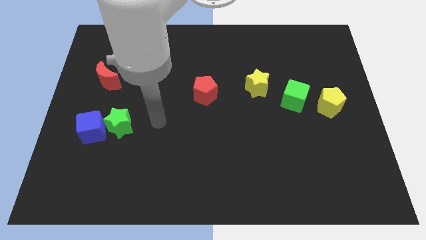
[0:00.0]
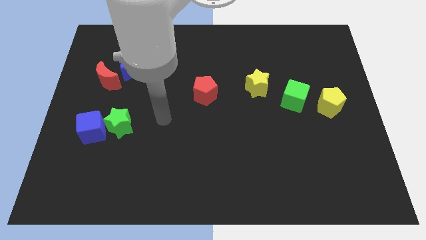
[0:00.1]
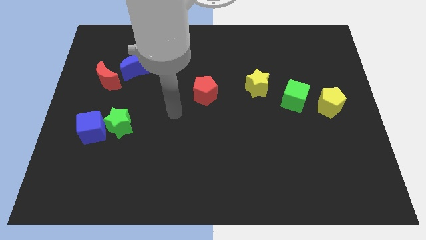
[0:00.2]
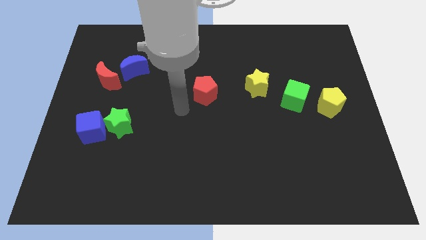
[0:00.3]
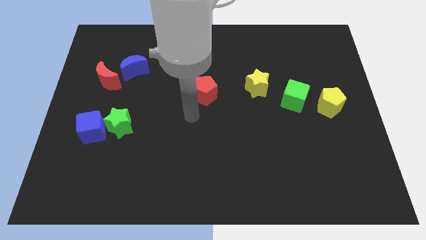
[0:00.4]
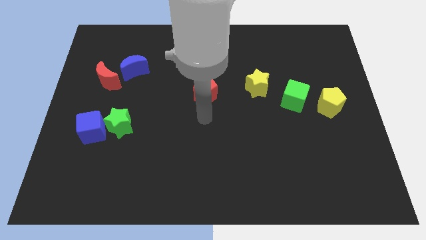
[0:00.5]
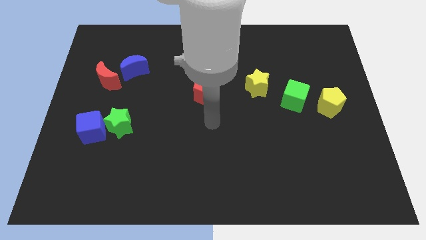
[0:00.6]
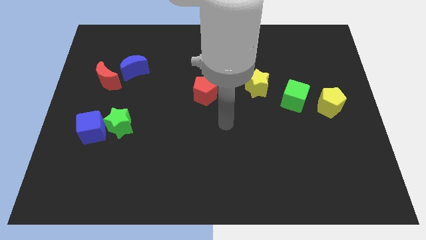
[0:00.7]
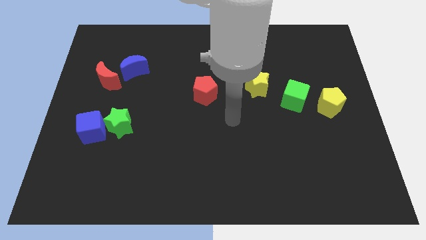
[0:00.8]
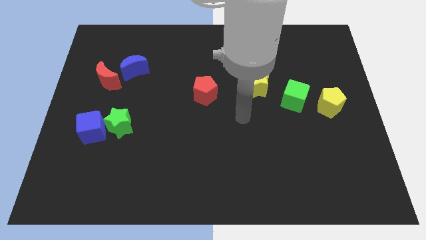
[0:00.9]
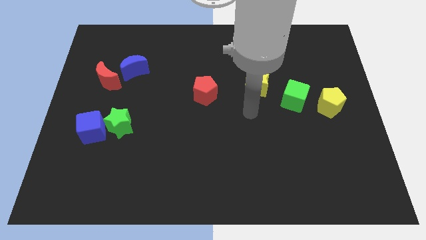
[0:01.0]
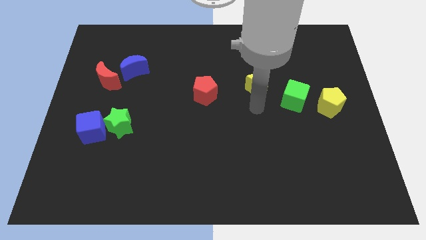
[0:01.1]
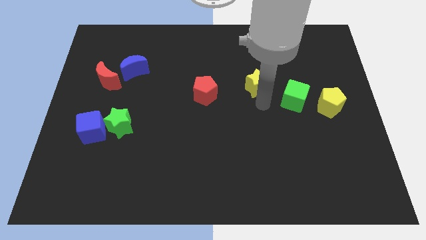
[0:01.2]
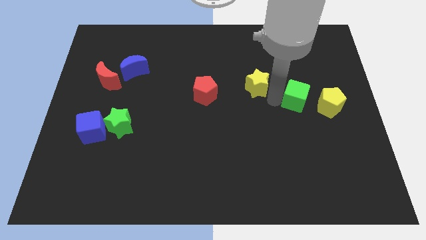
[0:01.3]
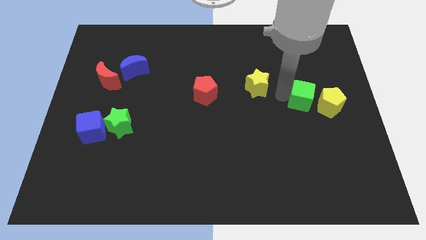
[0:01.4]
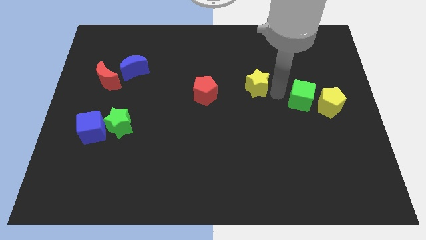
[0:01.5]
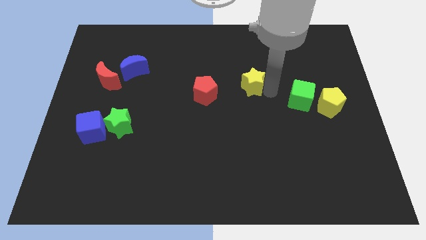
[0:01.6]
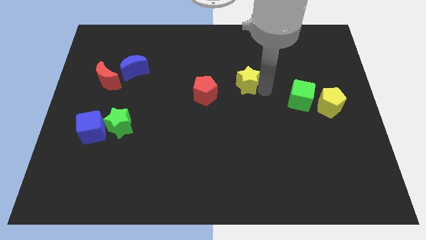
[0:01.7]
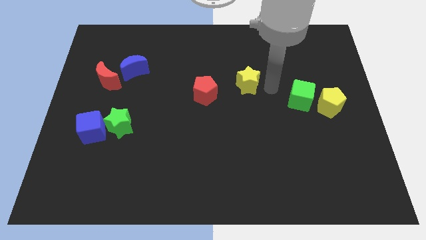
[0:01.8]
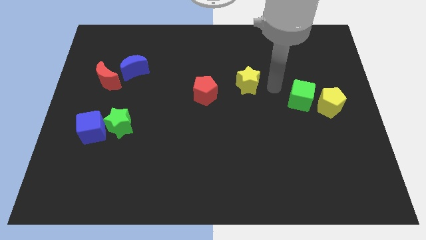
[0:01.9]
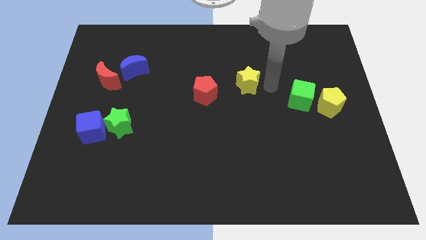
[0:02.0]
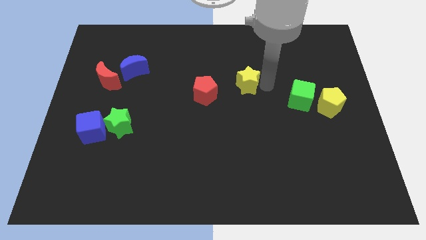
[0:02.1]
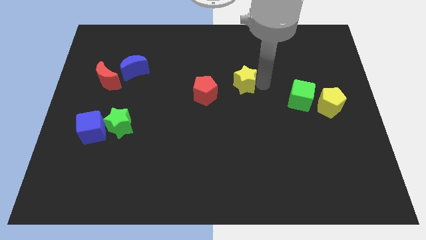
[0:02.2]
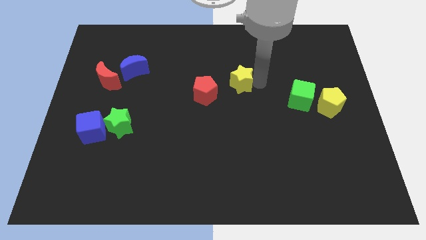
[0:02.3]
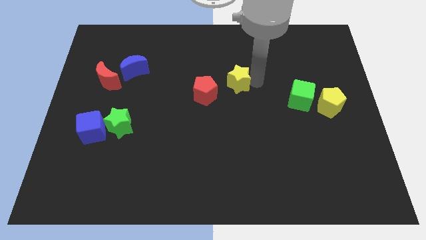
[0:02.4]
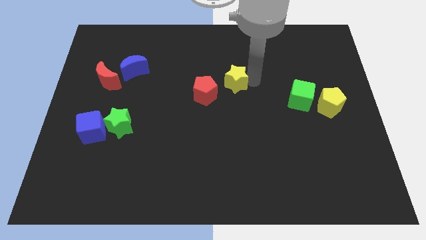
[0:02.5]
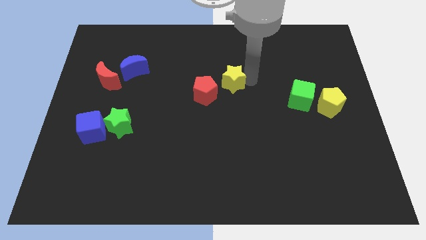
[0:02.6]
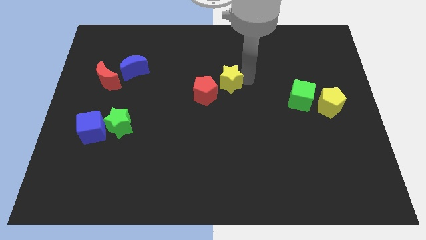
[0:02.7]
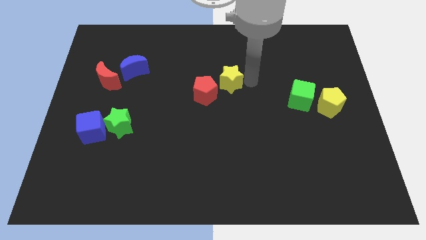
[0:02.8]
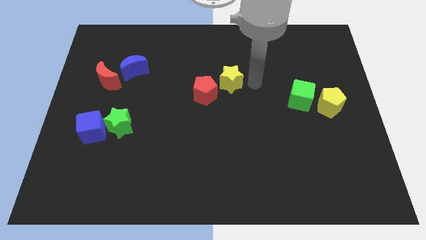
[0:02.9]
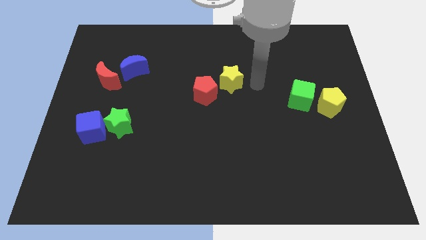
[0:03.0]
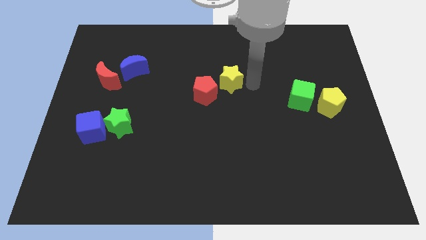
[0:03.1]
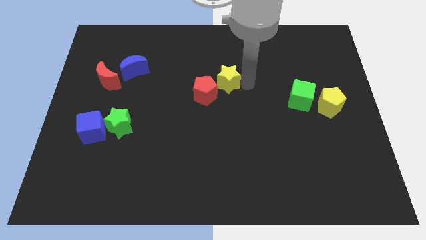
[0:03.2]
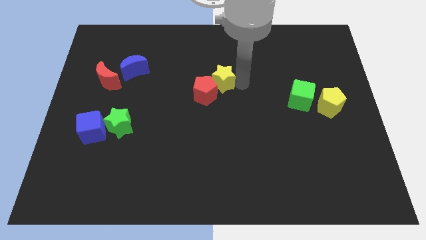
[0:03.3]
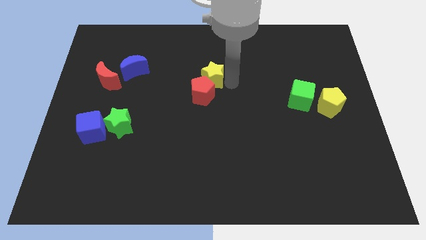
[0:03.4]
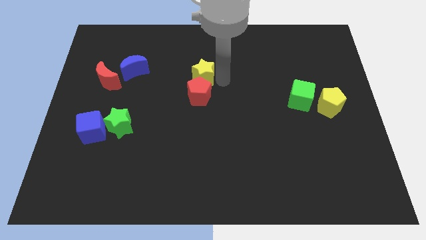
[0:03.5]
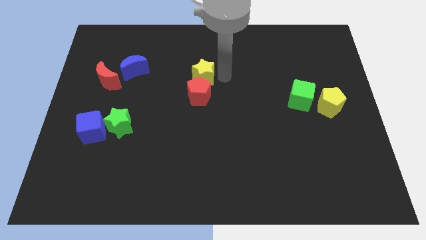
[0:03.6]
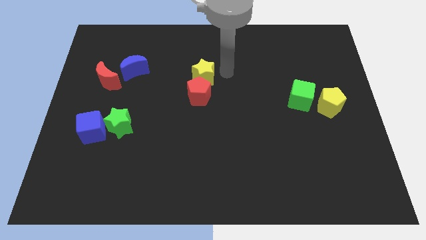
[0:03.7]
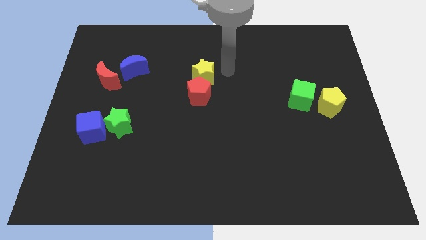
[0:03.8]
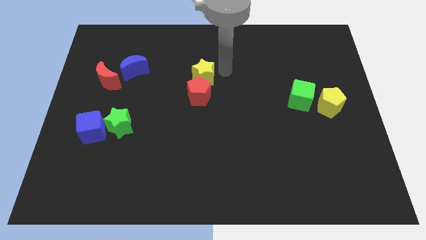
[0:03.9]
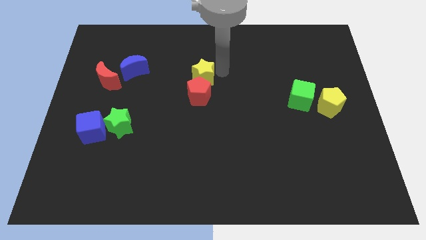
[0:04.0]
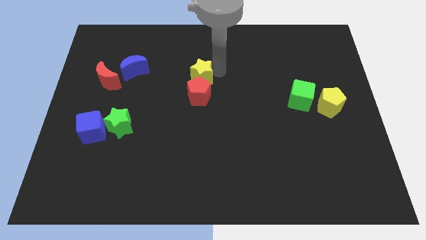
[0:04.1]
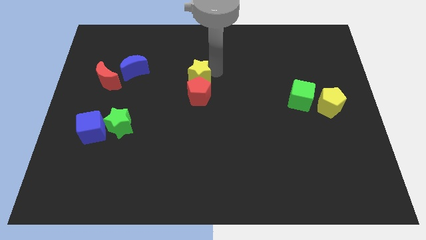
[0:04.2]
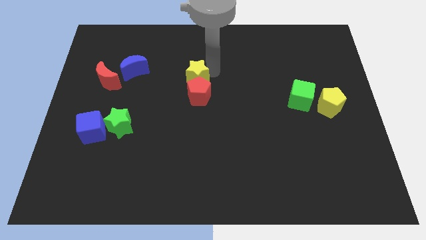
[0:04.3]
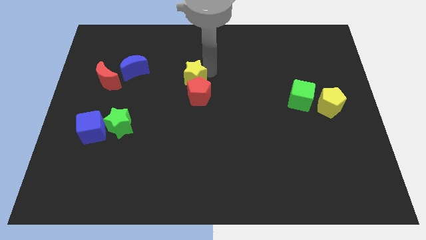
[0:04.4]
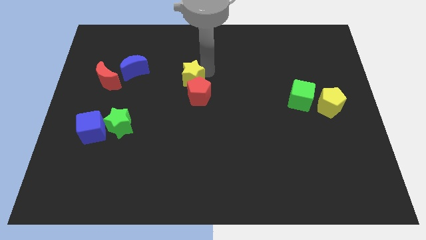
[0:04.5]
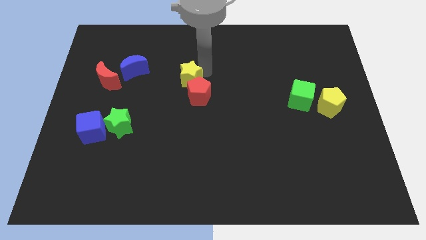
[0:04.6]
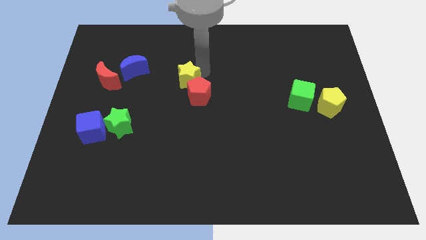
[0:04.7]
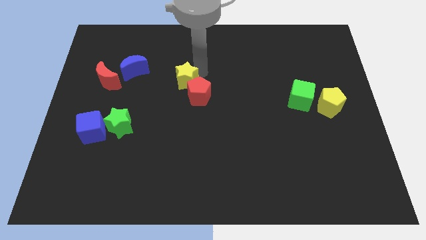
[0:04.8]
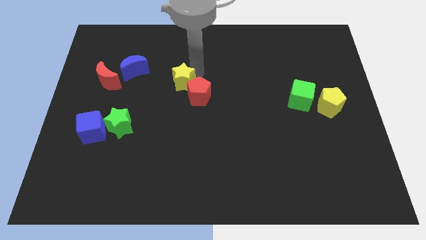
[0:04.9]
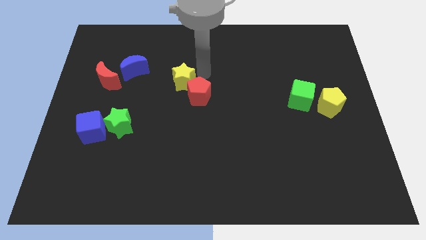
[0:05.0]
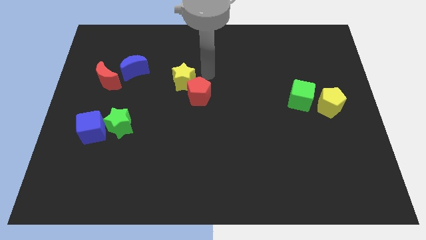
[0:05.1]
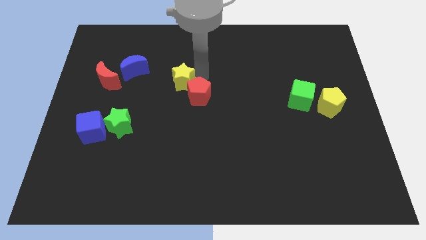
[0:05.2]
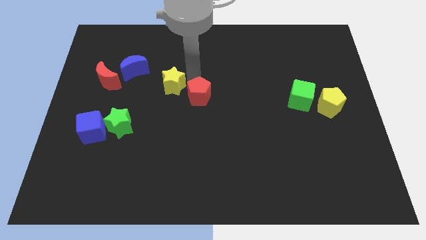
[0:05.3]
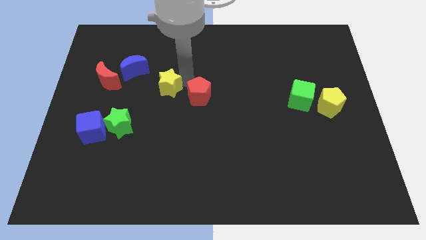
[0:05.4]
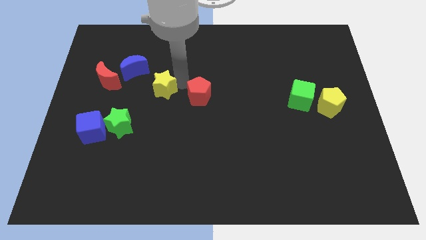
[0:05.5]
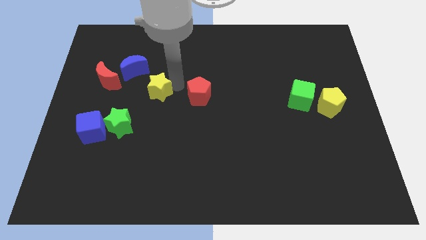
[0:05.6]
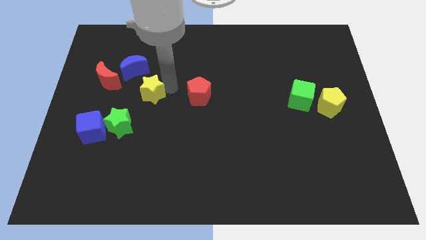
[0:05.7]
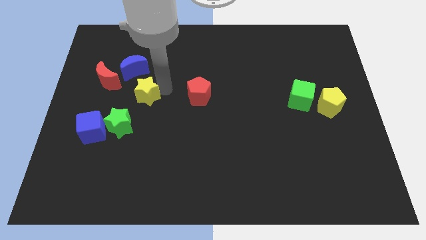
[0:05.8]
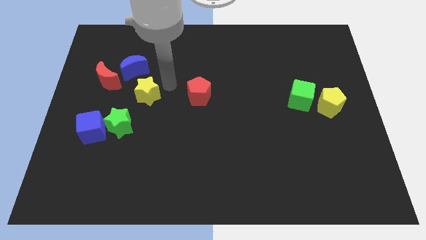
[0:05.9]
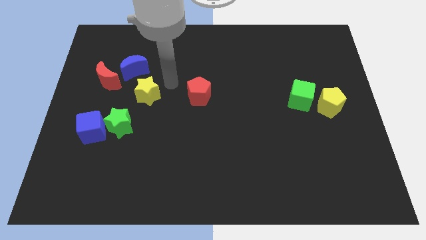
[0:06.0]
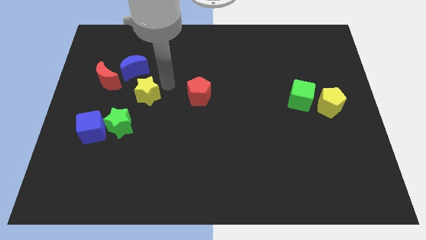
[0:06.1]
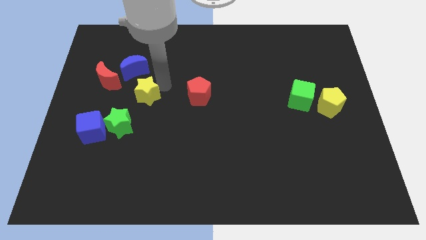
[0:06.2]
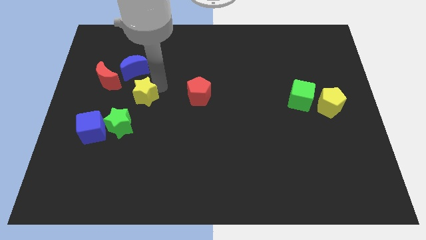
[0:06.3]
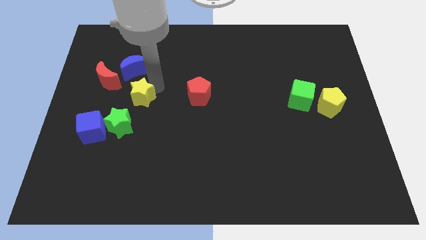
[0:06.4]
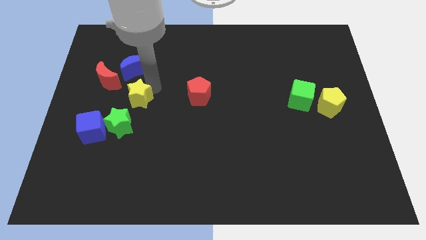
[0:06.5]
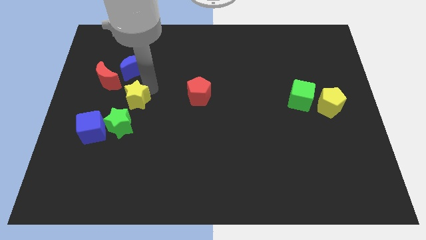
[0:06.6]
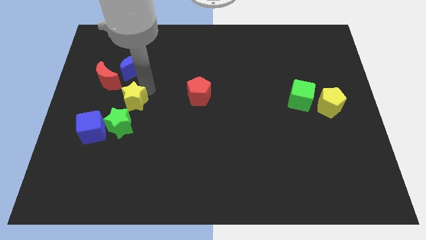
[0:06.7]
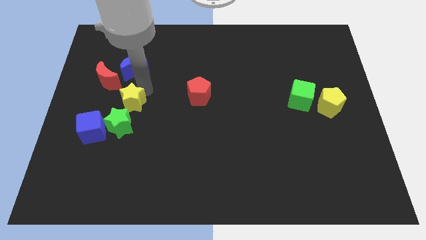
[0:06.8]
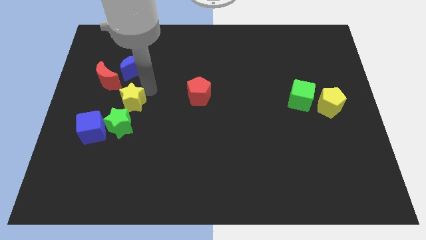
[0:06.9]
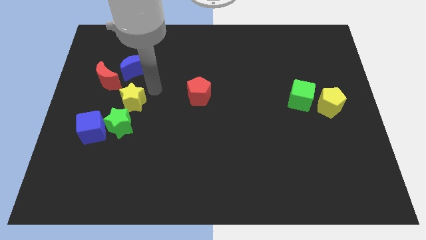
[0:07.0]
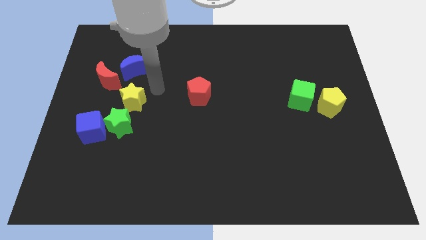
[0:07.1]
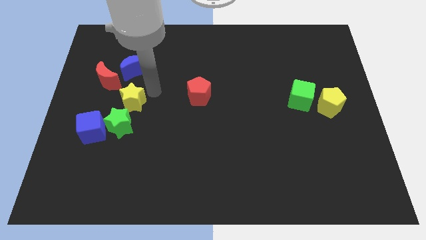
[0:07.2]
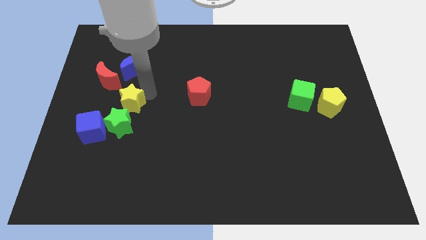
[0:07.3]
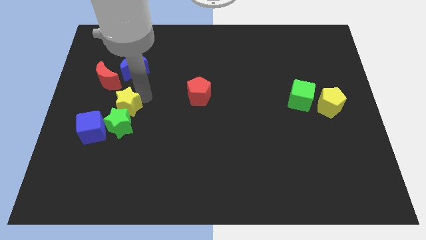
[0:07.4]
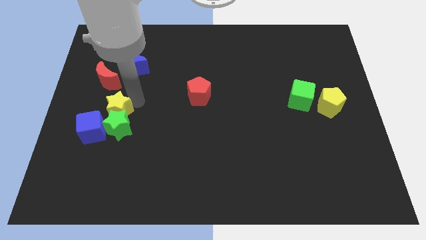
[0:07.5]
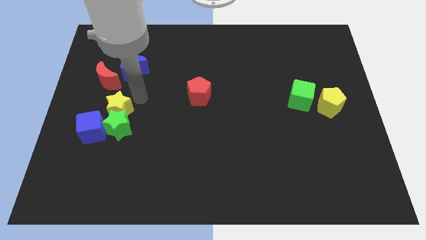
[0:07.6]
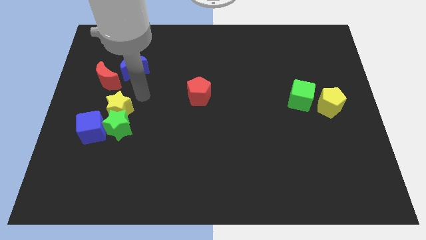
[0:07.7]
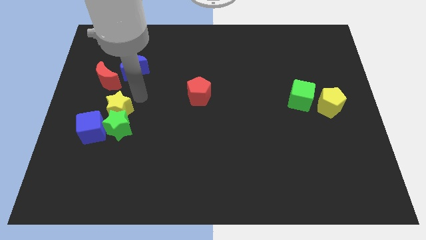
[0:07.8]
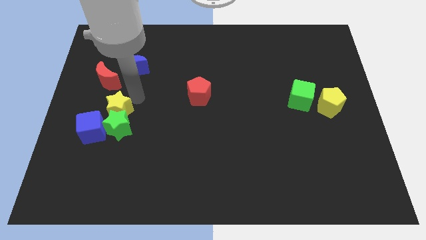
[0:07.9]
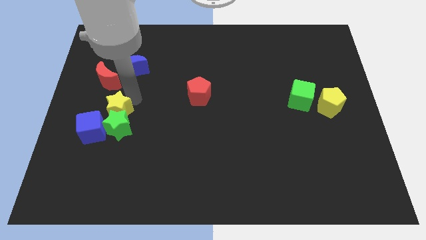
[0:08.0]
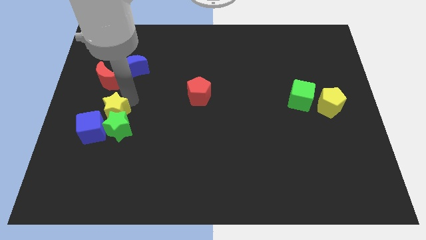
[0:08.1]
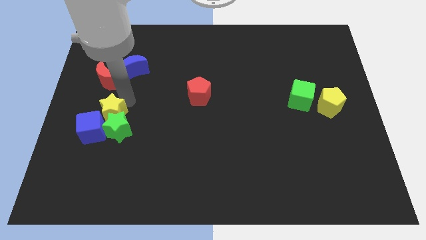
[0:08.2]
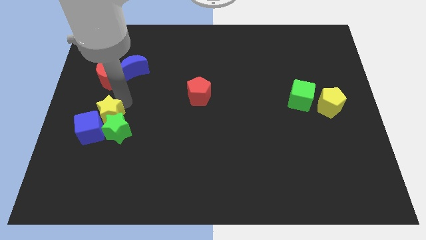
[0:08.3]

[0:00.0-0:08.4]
move the yellow star towards the blue cube
